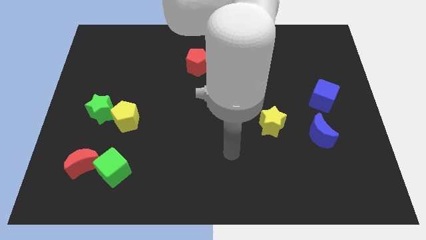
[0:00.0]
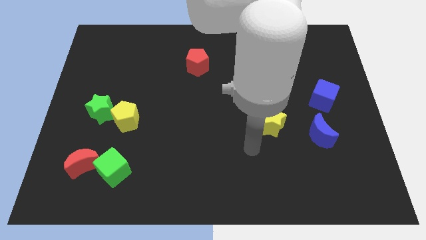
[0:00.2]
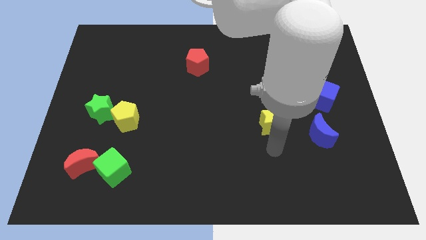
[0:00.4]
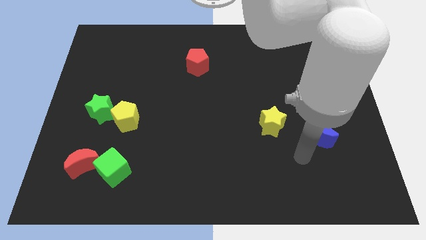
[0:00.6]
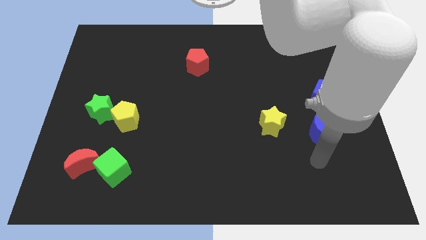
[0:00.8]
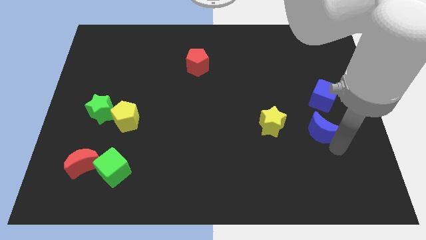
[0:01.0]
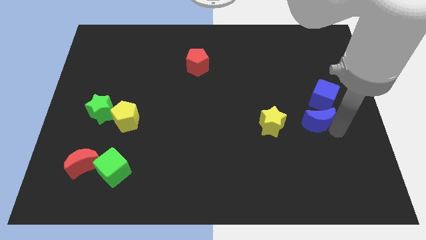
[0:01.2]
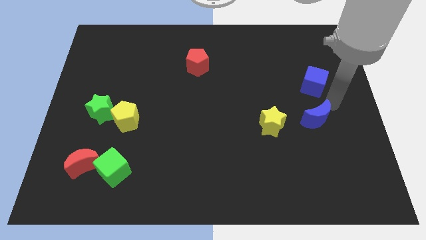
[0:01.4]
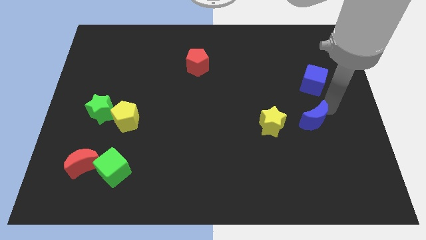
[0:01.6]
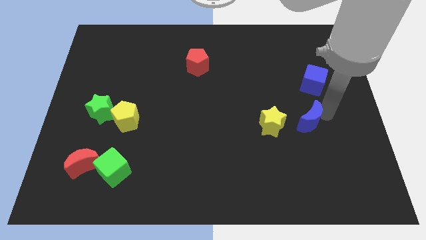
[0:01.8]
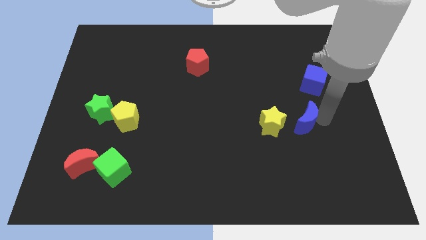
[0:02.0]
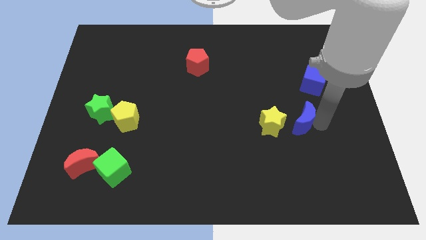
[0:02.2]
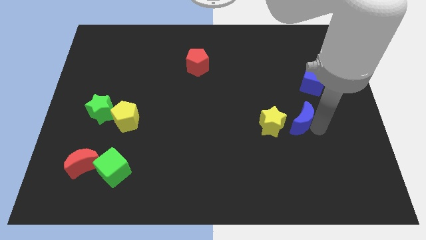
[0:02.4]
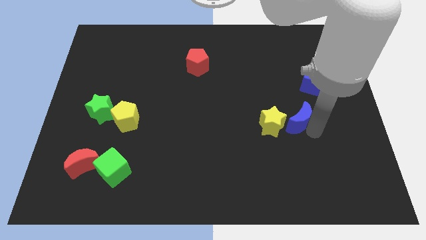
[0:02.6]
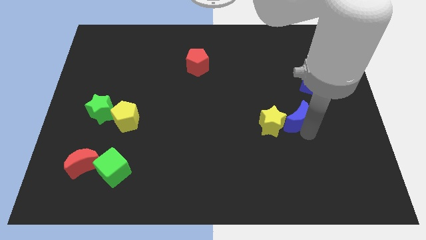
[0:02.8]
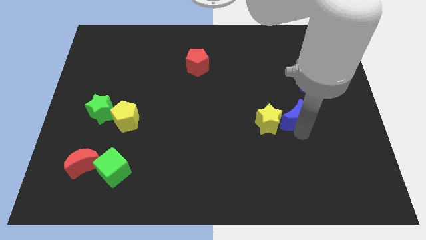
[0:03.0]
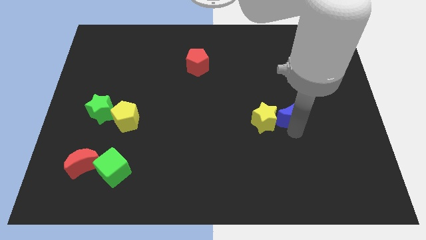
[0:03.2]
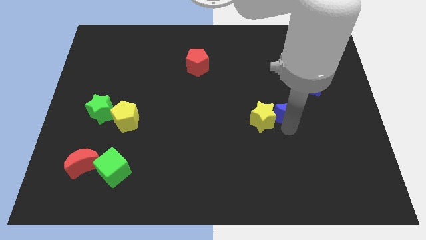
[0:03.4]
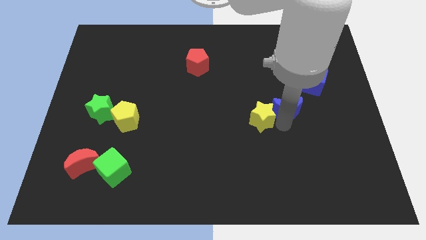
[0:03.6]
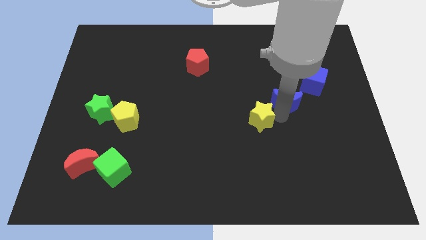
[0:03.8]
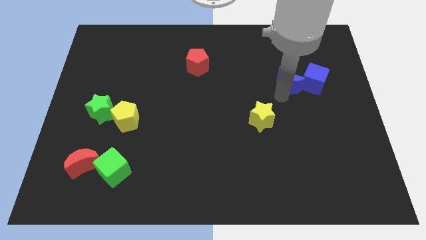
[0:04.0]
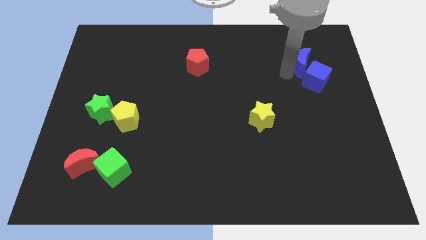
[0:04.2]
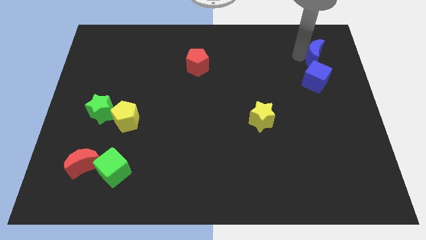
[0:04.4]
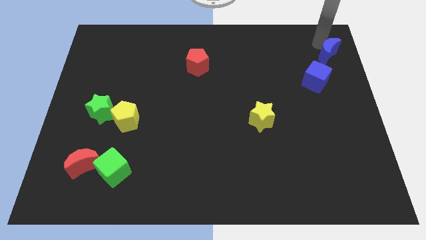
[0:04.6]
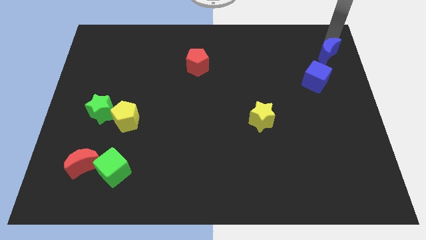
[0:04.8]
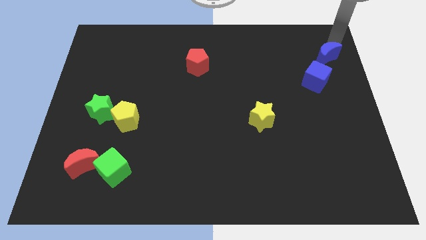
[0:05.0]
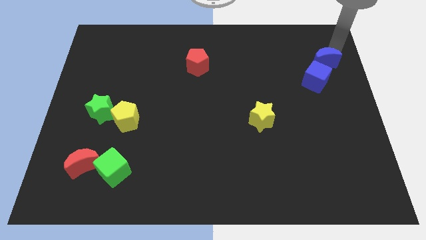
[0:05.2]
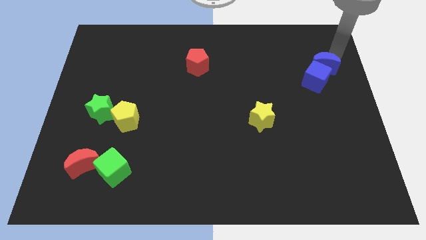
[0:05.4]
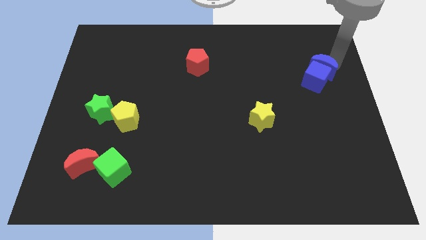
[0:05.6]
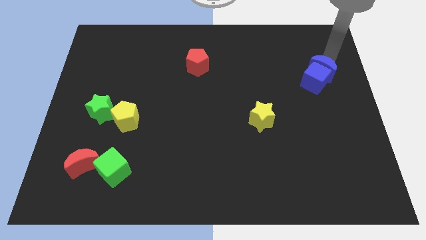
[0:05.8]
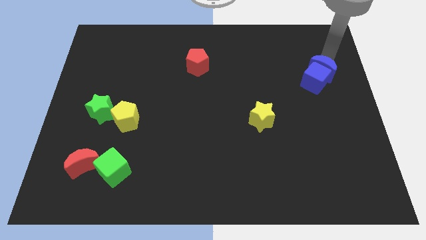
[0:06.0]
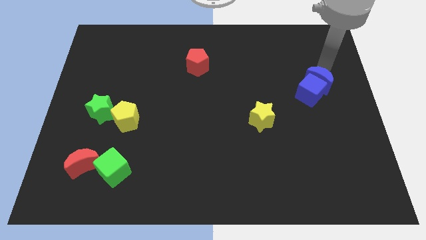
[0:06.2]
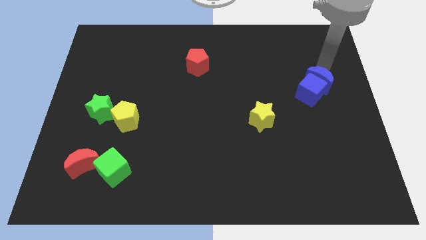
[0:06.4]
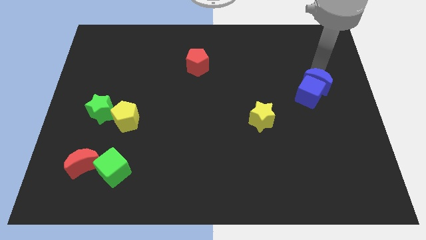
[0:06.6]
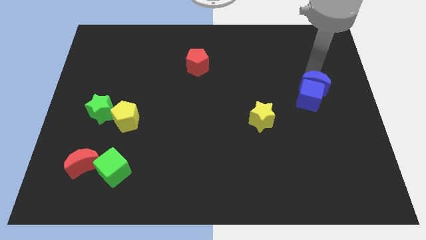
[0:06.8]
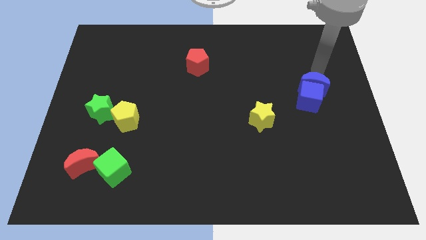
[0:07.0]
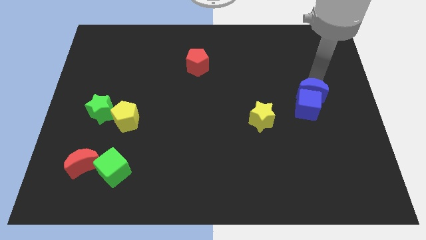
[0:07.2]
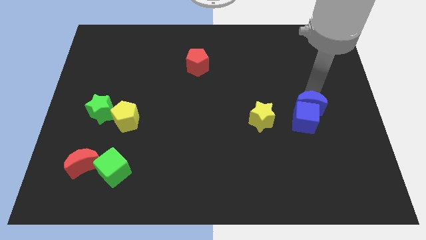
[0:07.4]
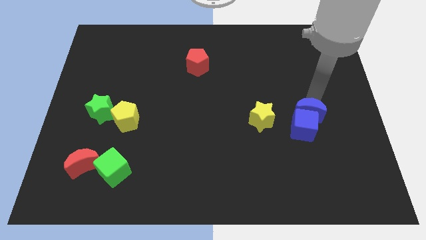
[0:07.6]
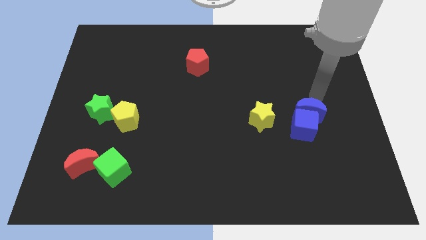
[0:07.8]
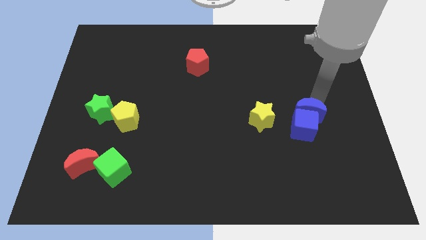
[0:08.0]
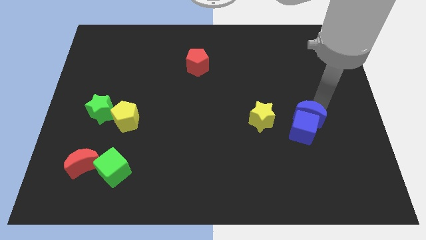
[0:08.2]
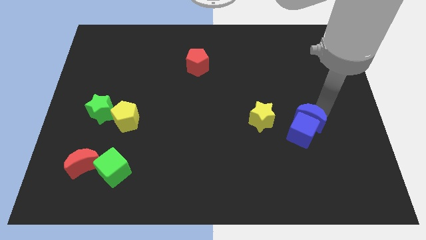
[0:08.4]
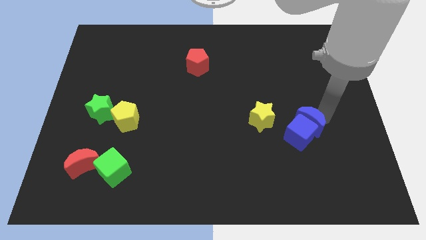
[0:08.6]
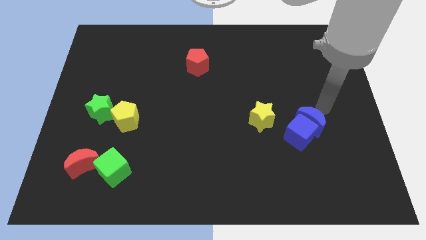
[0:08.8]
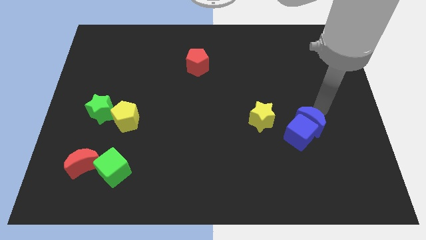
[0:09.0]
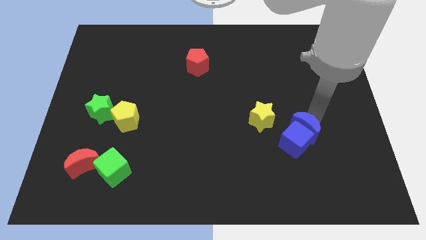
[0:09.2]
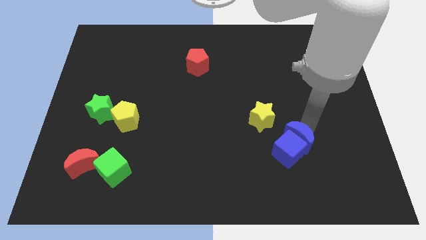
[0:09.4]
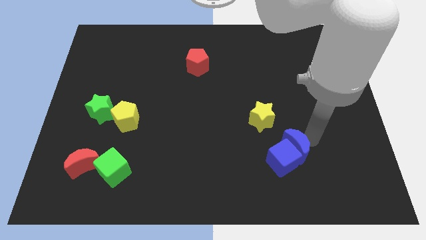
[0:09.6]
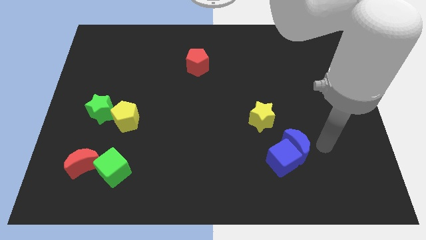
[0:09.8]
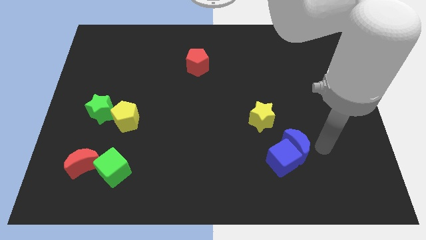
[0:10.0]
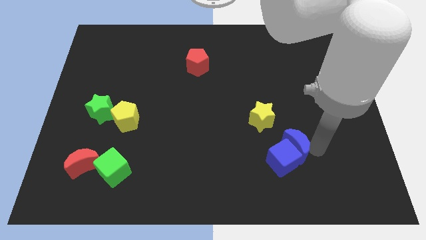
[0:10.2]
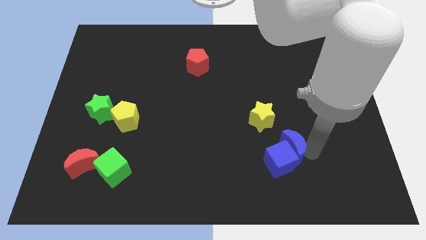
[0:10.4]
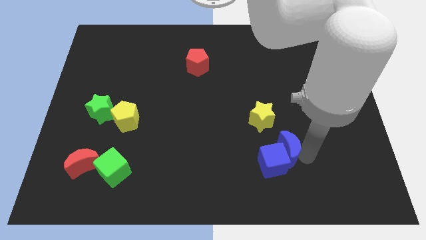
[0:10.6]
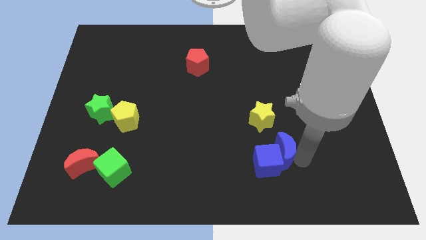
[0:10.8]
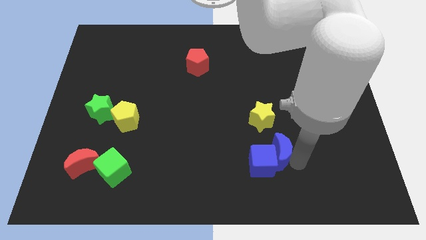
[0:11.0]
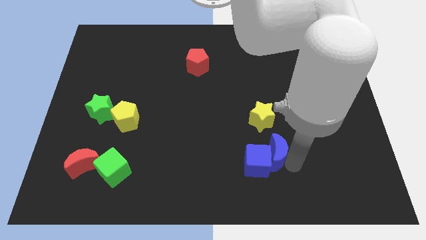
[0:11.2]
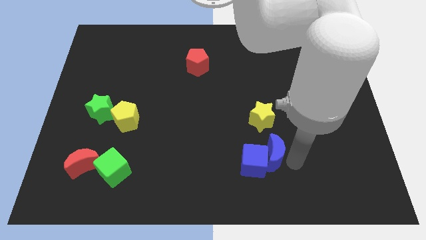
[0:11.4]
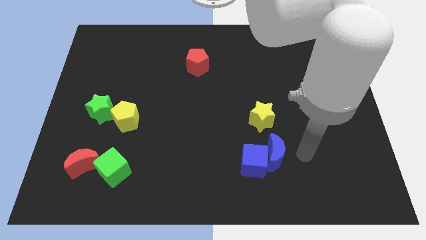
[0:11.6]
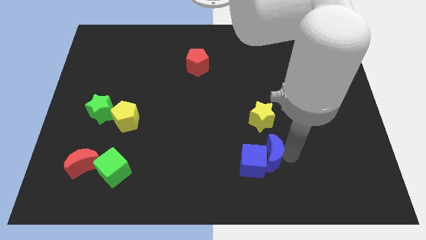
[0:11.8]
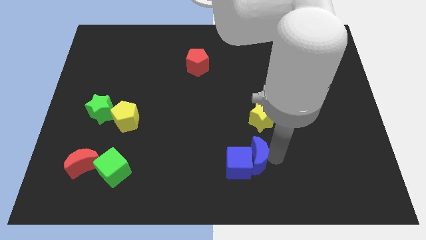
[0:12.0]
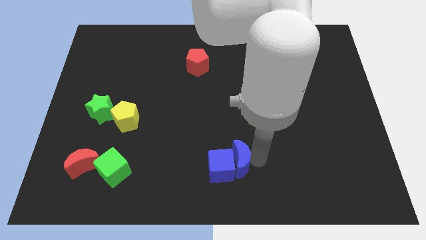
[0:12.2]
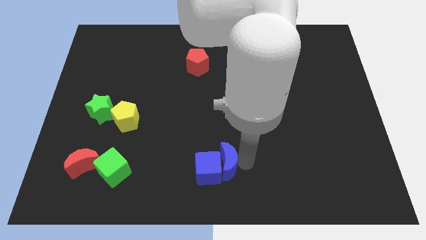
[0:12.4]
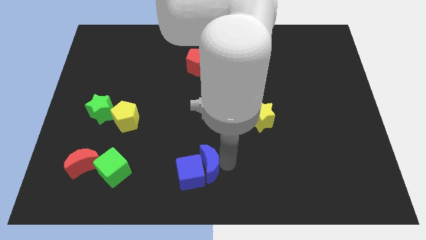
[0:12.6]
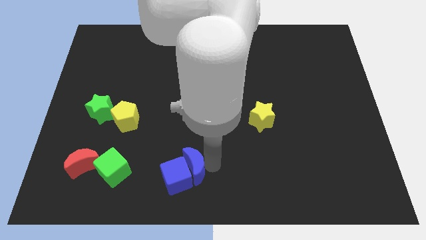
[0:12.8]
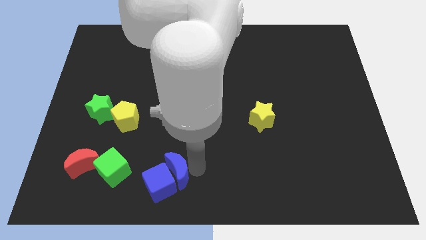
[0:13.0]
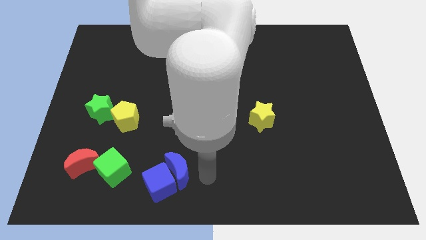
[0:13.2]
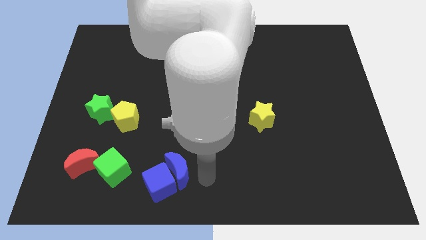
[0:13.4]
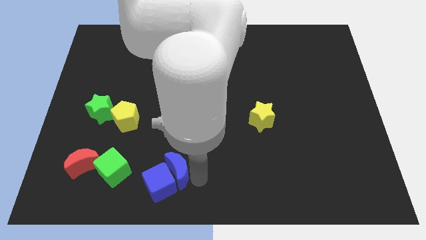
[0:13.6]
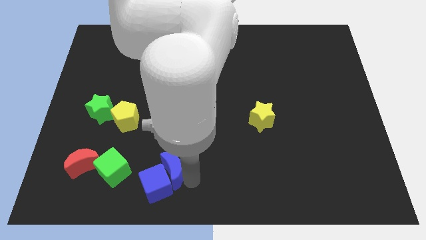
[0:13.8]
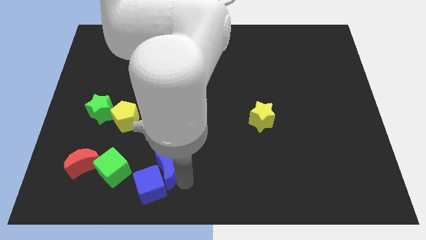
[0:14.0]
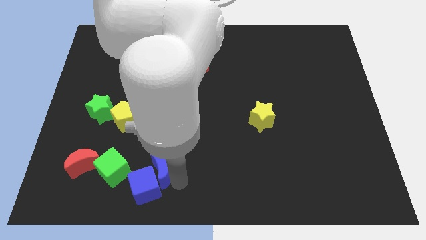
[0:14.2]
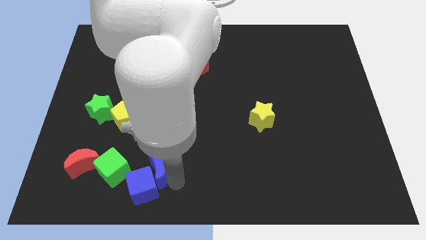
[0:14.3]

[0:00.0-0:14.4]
put the blue moon to the right side of the red moon

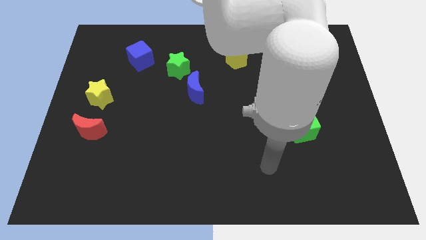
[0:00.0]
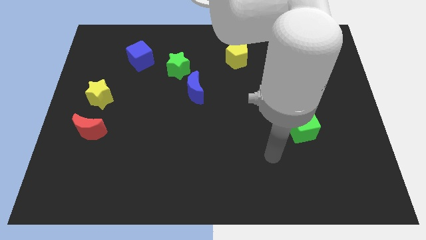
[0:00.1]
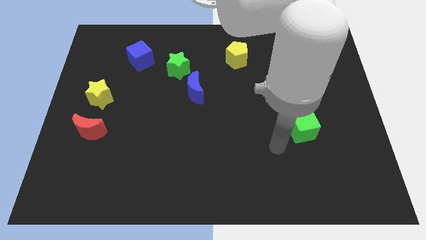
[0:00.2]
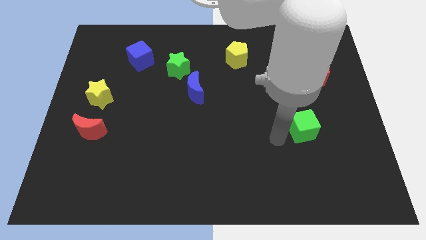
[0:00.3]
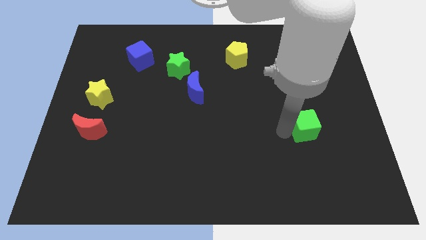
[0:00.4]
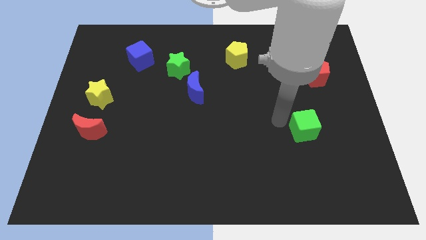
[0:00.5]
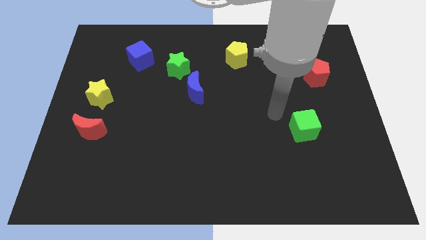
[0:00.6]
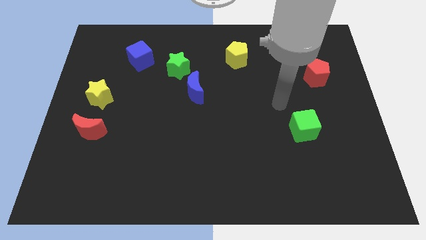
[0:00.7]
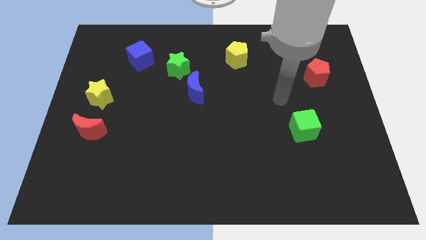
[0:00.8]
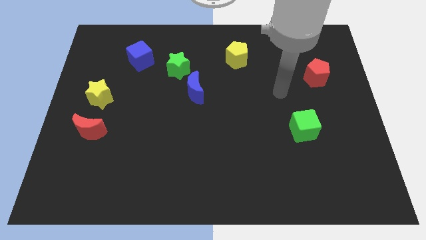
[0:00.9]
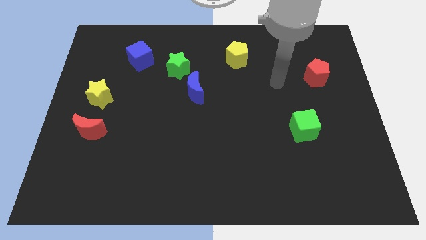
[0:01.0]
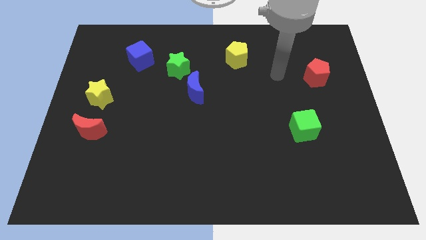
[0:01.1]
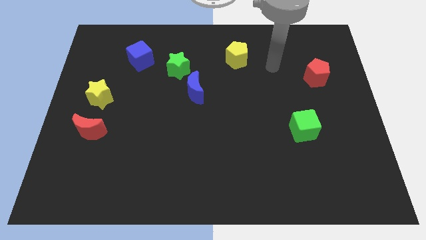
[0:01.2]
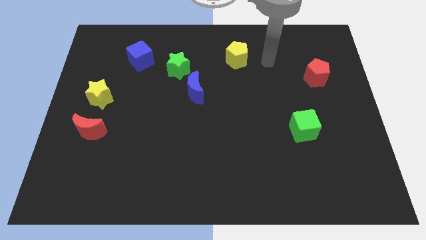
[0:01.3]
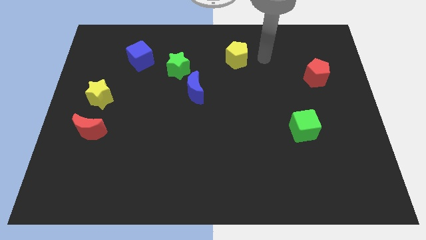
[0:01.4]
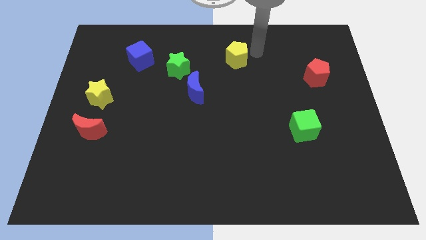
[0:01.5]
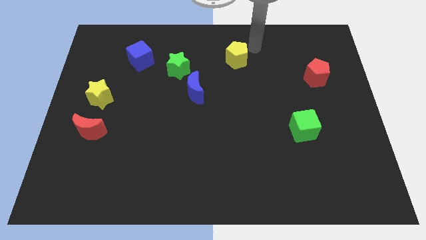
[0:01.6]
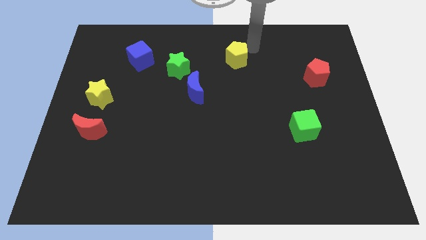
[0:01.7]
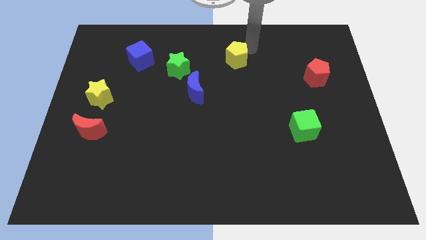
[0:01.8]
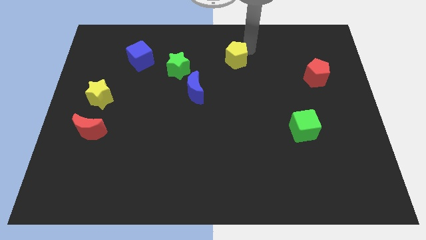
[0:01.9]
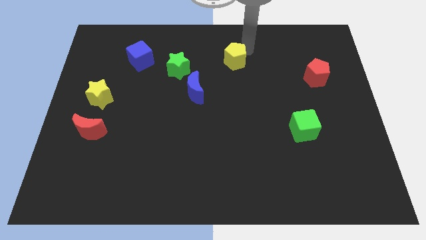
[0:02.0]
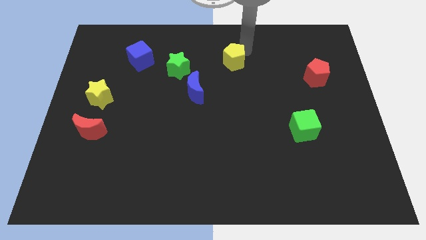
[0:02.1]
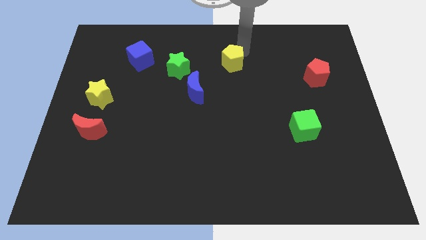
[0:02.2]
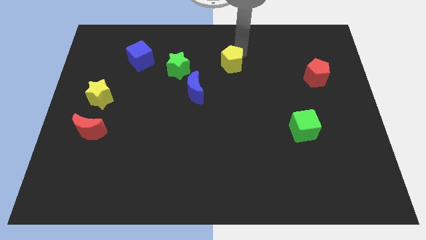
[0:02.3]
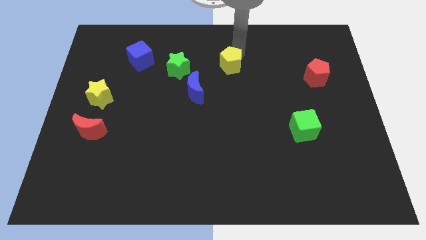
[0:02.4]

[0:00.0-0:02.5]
push the yellow pentagon to the top right of the blue moon
